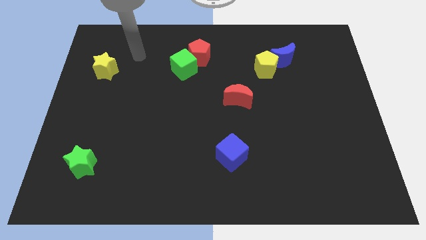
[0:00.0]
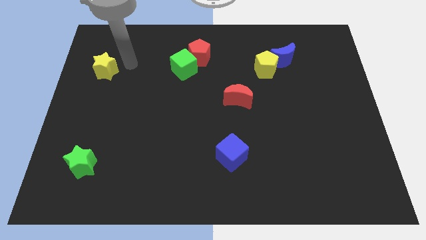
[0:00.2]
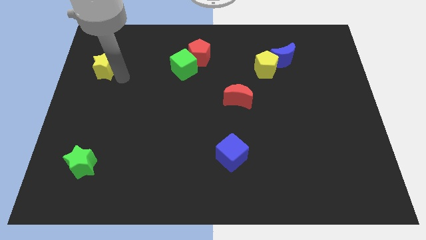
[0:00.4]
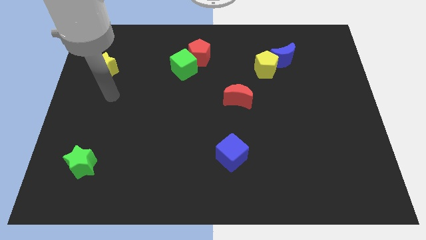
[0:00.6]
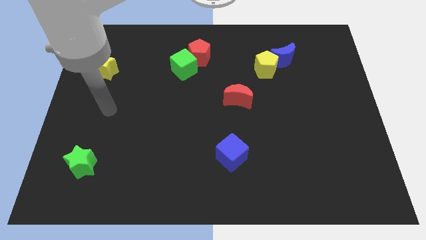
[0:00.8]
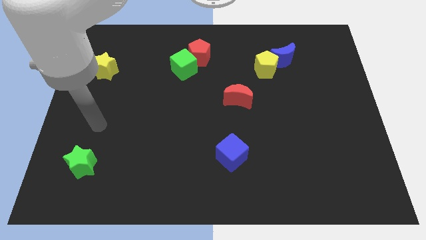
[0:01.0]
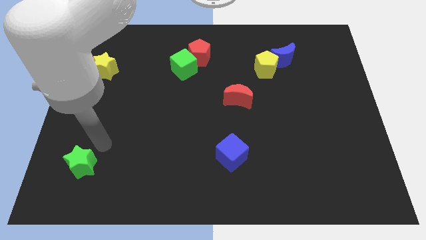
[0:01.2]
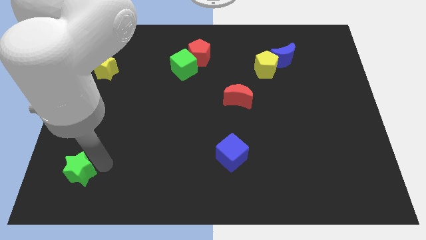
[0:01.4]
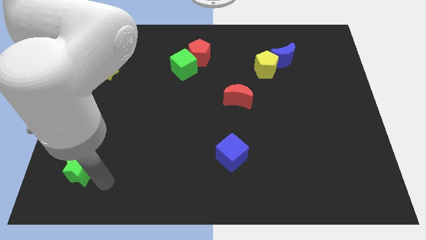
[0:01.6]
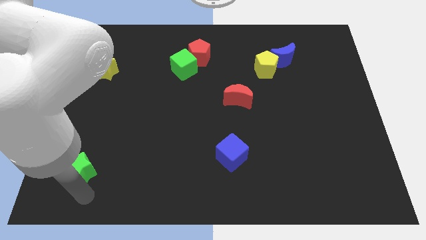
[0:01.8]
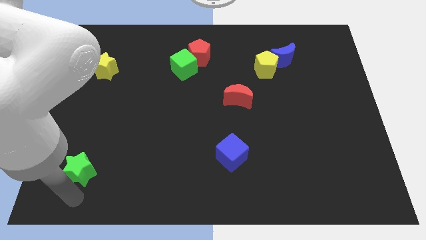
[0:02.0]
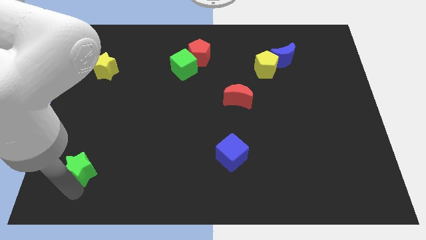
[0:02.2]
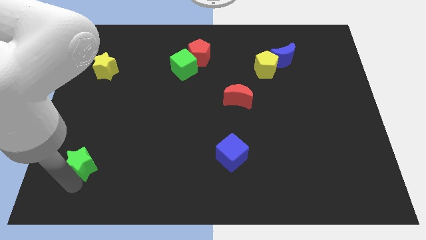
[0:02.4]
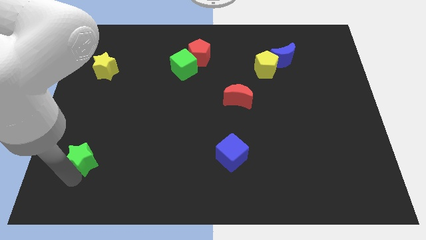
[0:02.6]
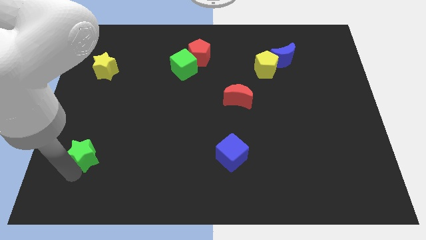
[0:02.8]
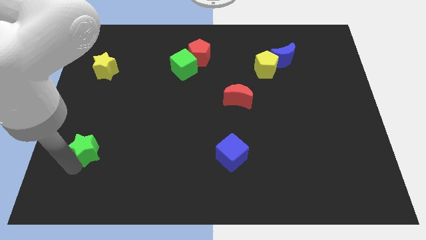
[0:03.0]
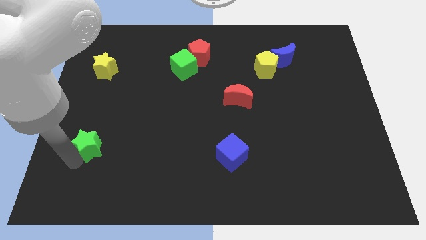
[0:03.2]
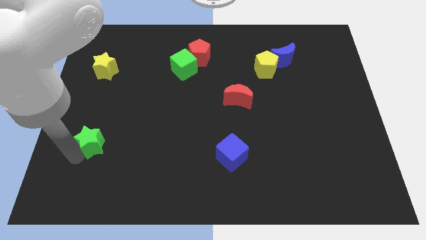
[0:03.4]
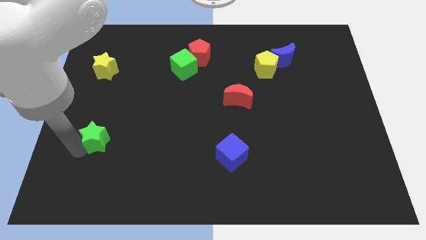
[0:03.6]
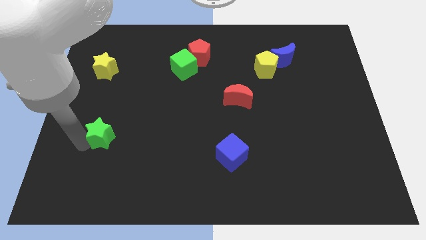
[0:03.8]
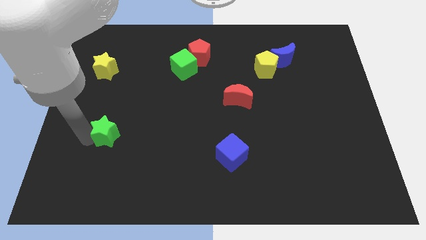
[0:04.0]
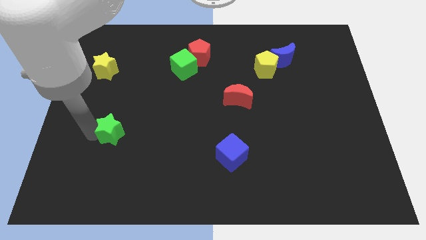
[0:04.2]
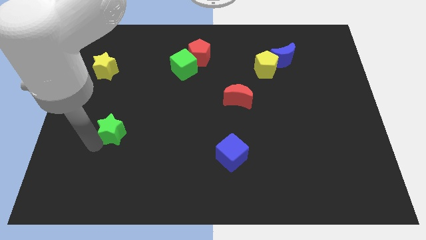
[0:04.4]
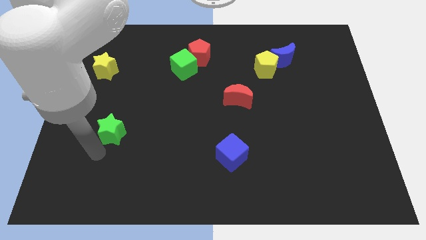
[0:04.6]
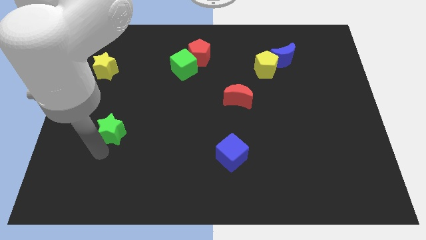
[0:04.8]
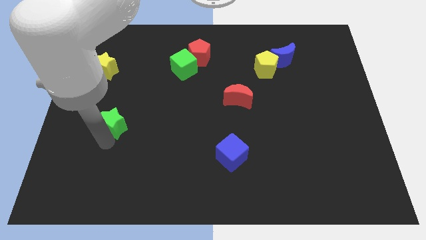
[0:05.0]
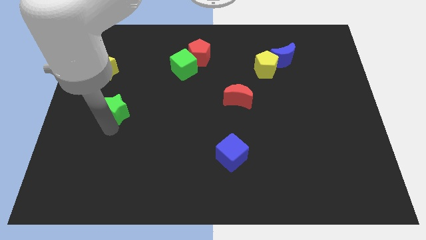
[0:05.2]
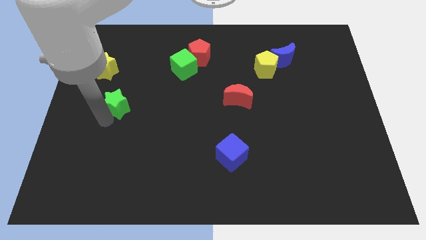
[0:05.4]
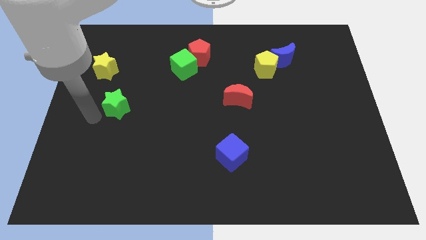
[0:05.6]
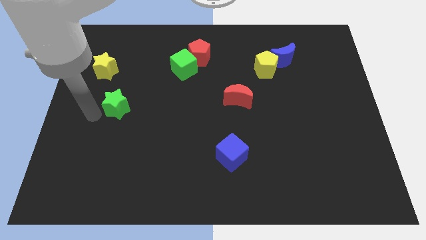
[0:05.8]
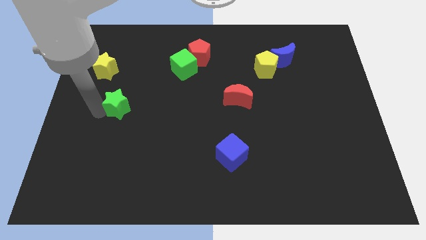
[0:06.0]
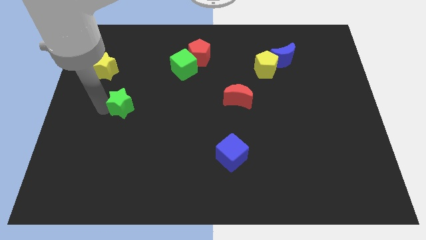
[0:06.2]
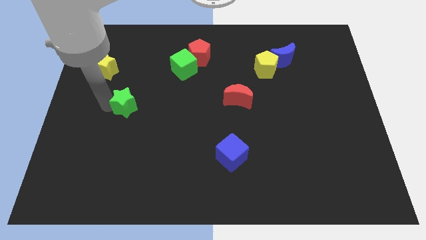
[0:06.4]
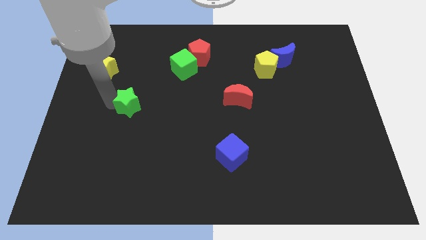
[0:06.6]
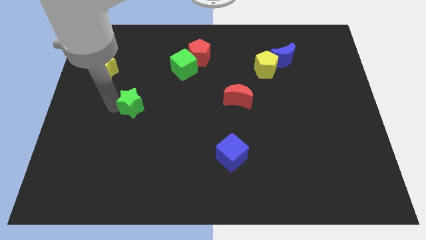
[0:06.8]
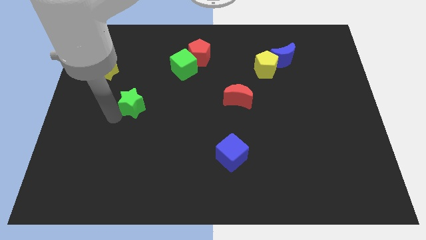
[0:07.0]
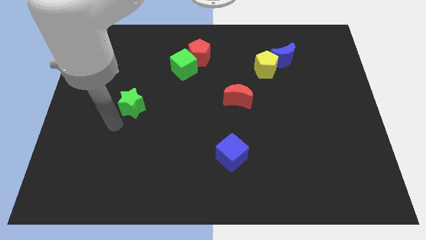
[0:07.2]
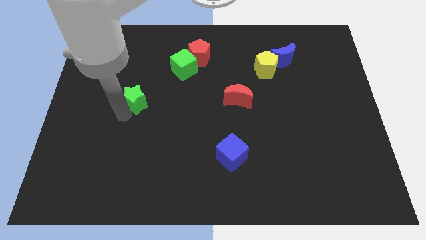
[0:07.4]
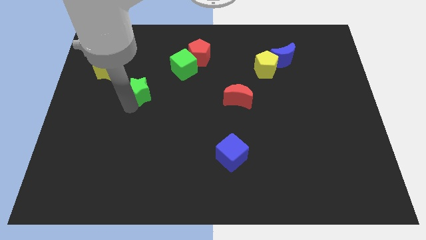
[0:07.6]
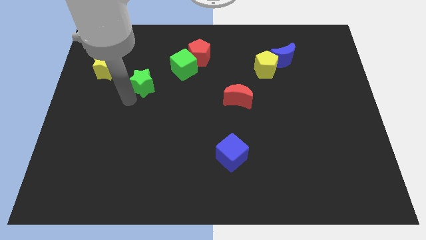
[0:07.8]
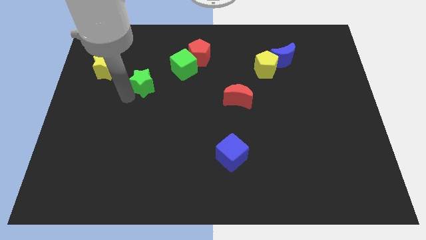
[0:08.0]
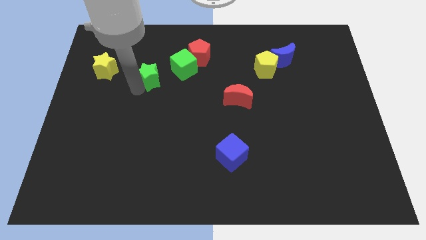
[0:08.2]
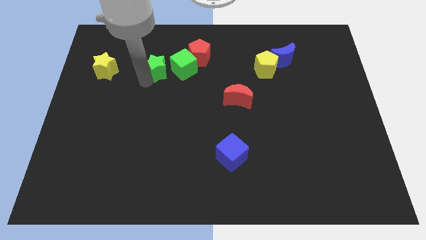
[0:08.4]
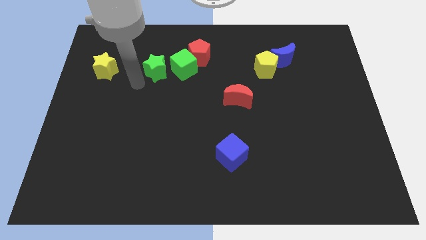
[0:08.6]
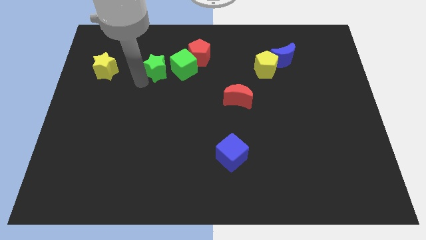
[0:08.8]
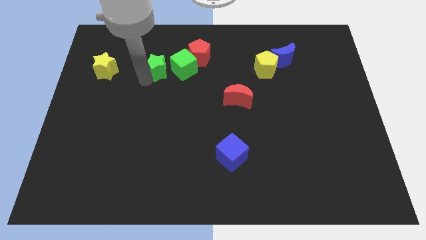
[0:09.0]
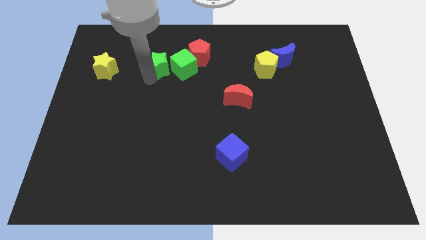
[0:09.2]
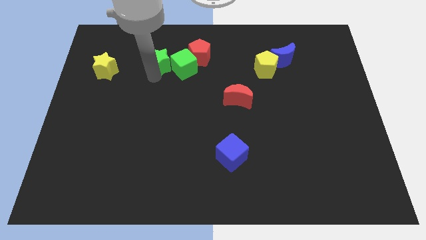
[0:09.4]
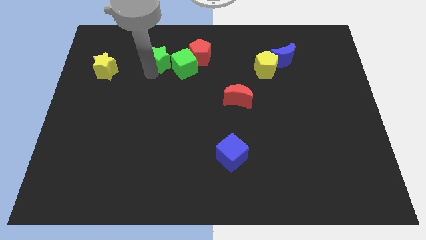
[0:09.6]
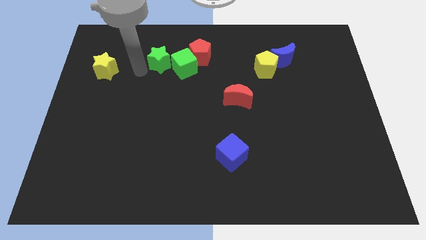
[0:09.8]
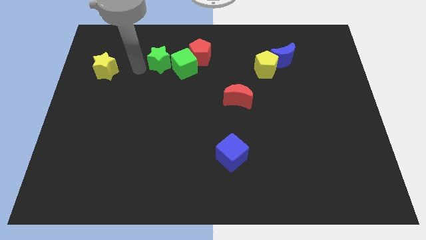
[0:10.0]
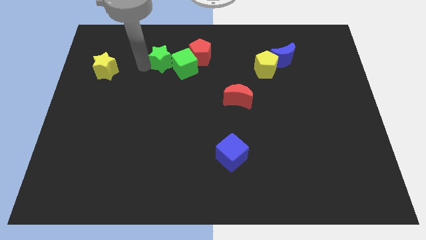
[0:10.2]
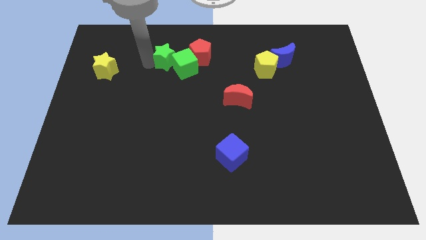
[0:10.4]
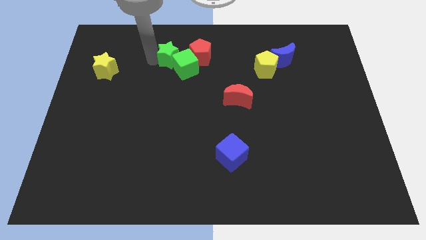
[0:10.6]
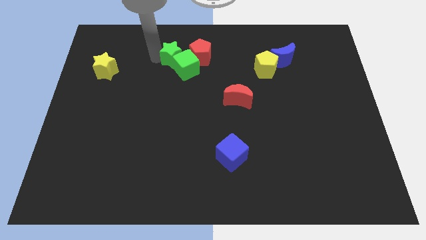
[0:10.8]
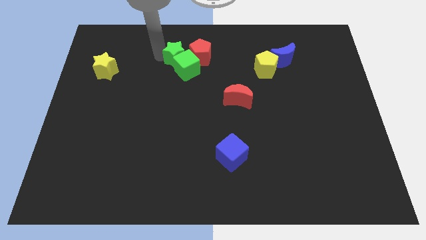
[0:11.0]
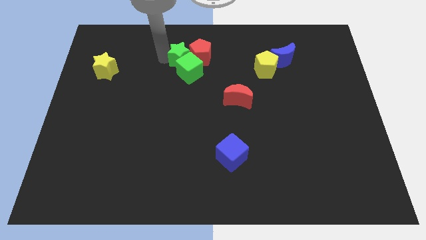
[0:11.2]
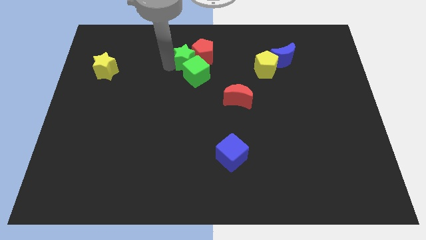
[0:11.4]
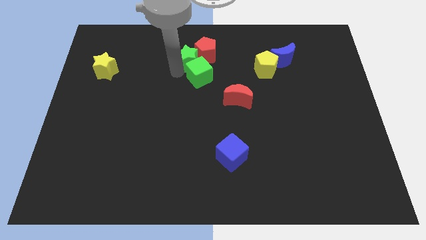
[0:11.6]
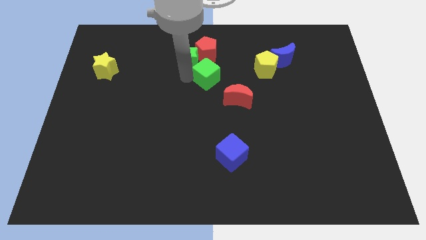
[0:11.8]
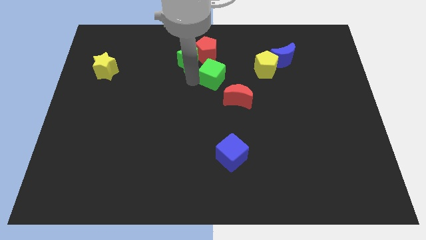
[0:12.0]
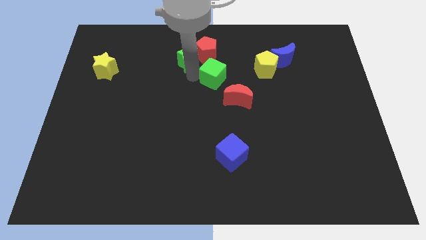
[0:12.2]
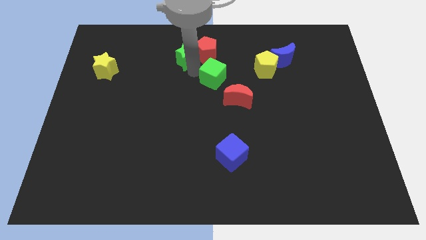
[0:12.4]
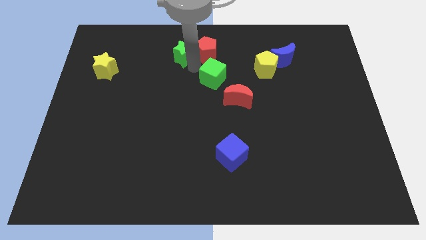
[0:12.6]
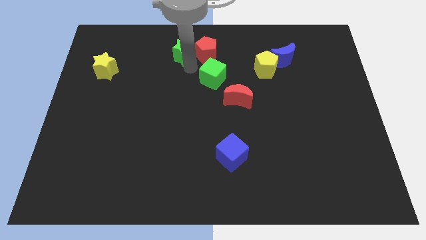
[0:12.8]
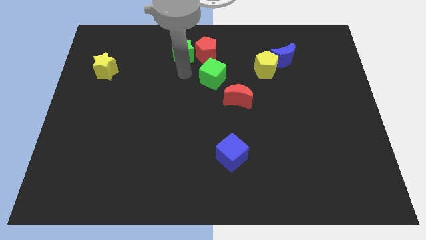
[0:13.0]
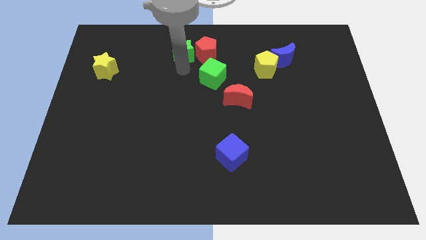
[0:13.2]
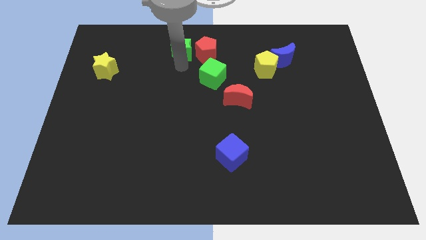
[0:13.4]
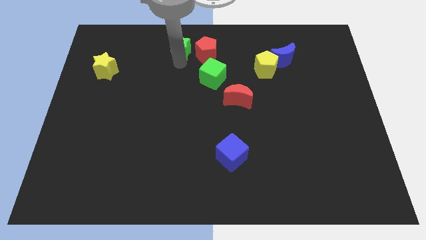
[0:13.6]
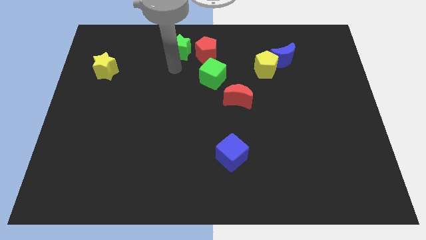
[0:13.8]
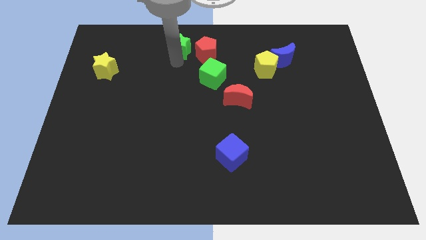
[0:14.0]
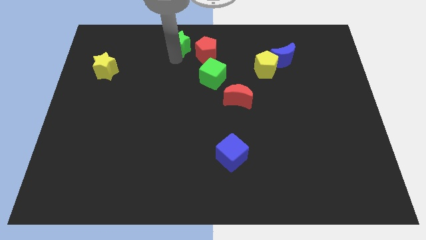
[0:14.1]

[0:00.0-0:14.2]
slide the green star to the top
